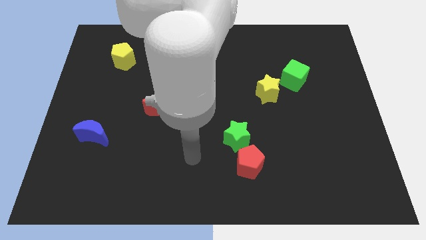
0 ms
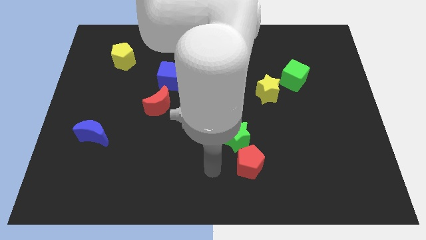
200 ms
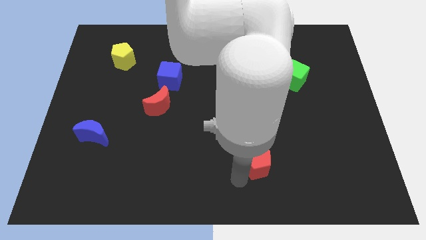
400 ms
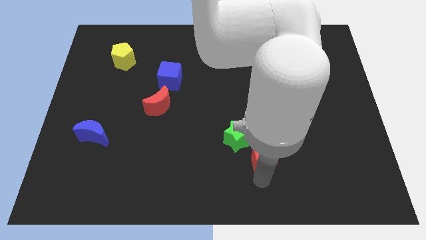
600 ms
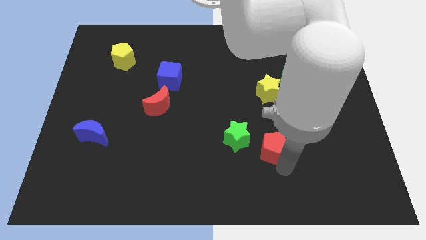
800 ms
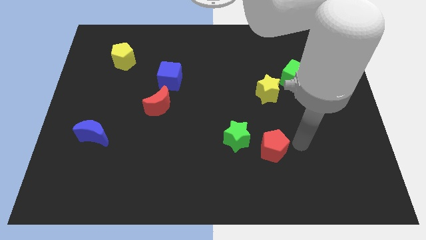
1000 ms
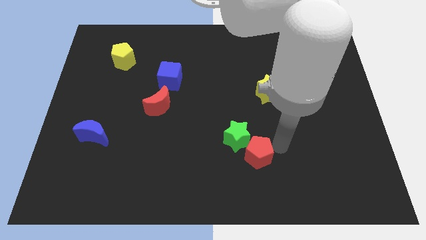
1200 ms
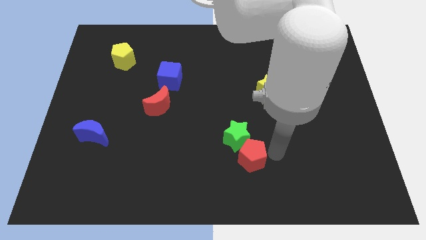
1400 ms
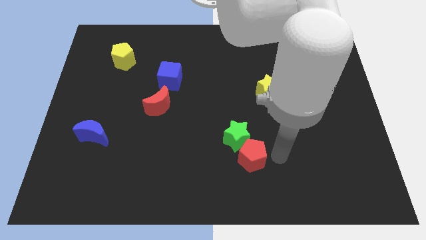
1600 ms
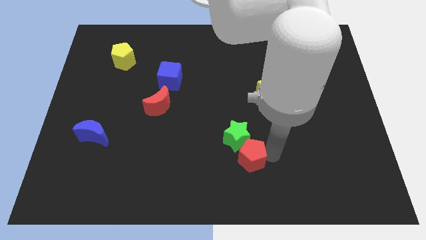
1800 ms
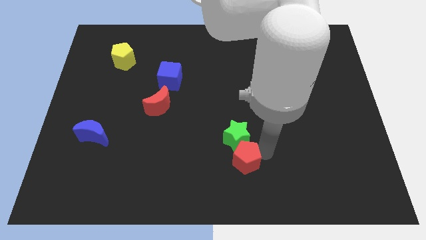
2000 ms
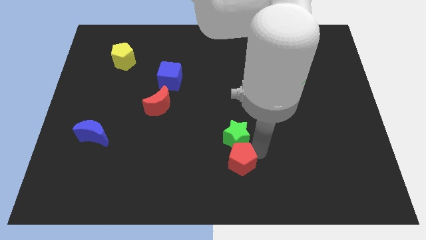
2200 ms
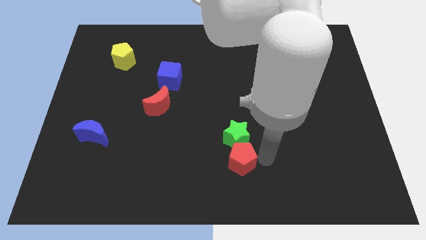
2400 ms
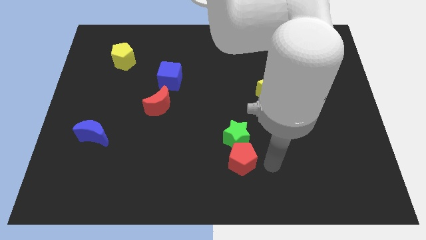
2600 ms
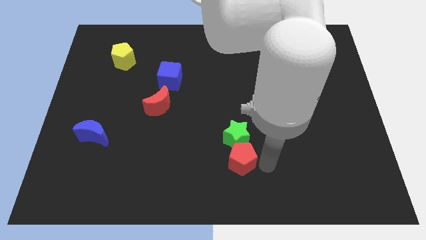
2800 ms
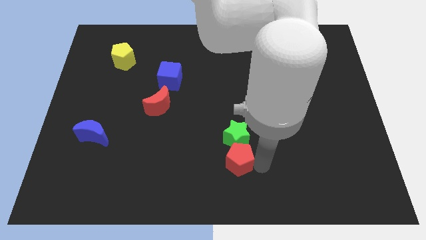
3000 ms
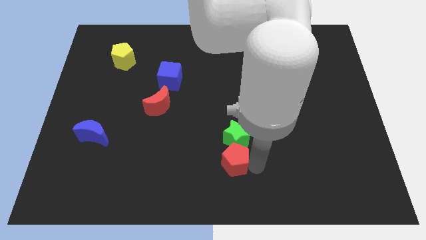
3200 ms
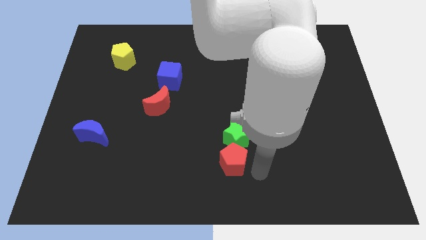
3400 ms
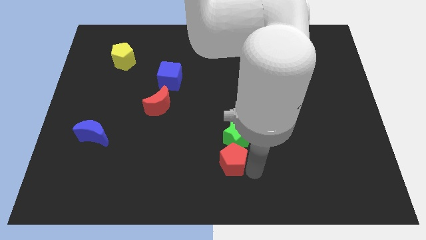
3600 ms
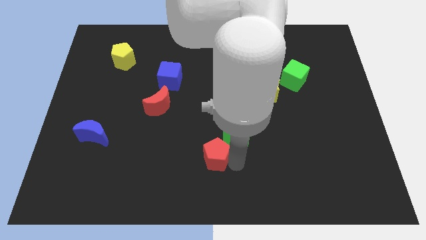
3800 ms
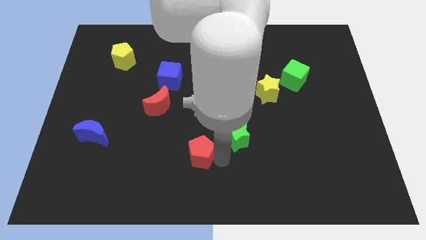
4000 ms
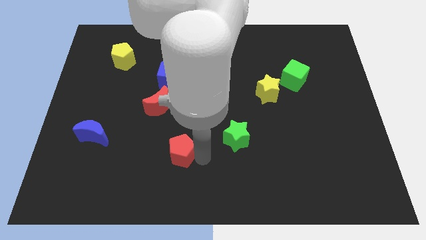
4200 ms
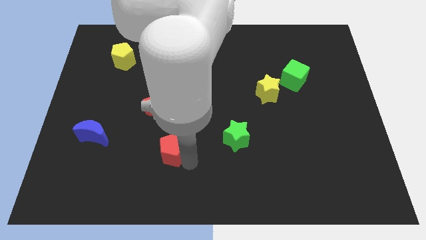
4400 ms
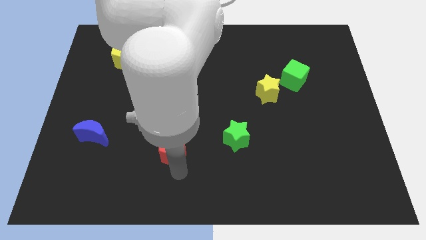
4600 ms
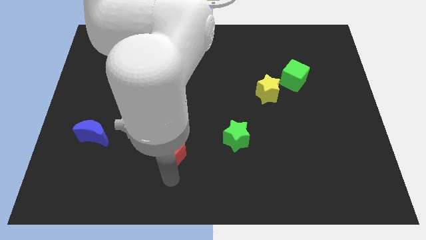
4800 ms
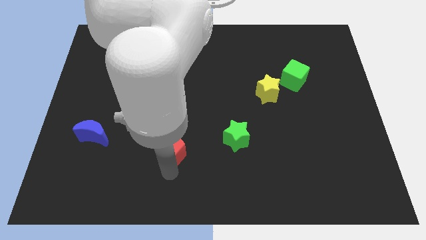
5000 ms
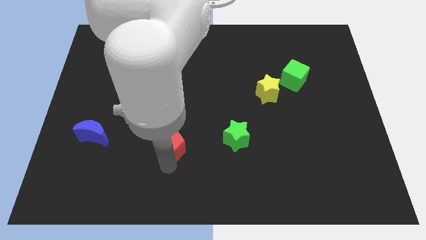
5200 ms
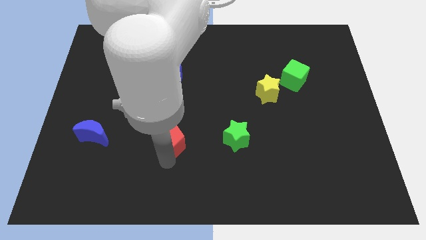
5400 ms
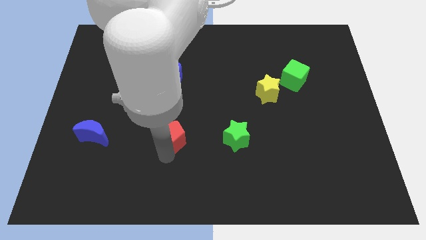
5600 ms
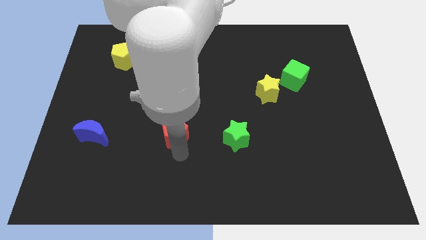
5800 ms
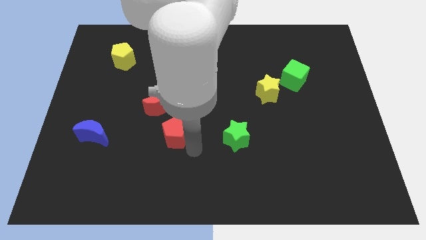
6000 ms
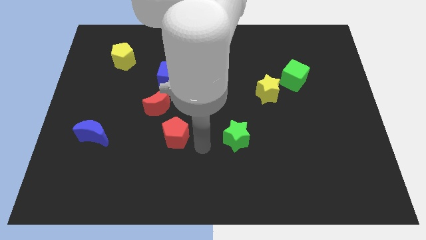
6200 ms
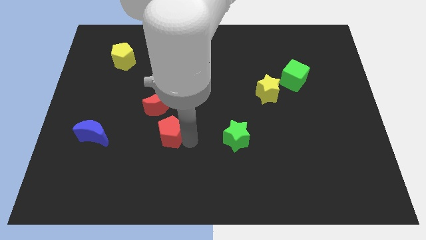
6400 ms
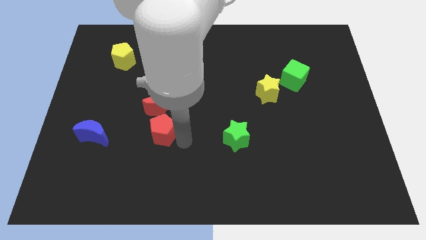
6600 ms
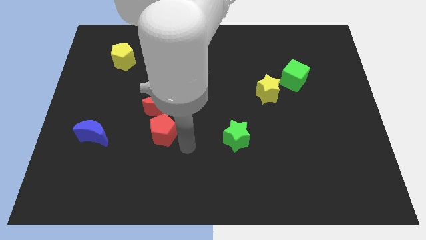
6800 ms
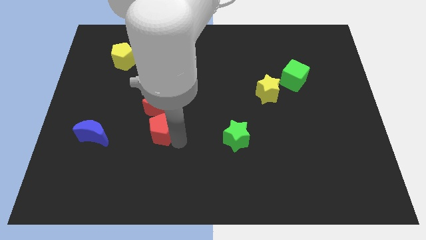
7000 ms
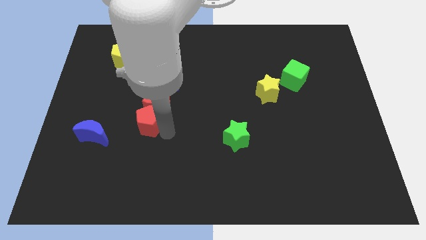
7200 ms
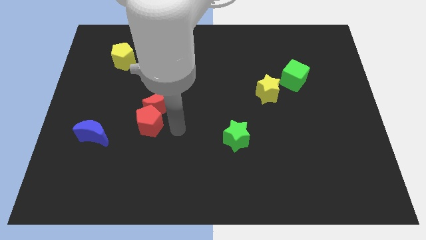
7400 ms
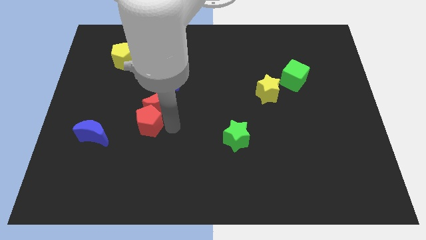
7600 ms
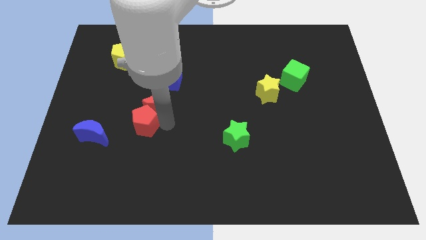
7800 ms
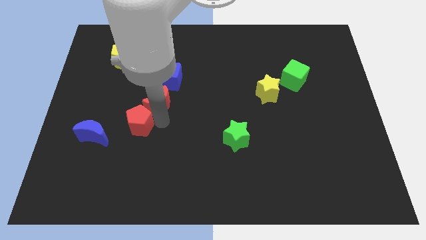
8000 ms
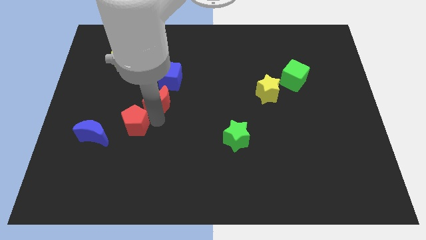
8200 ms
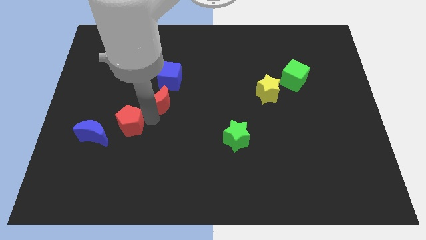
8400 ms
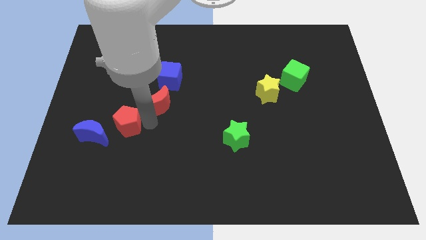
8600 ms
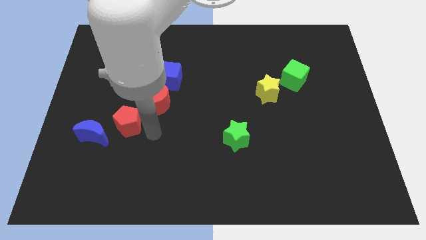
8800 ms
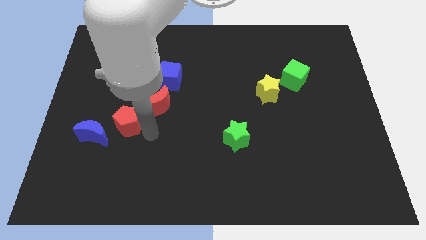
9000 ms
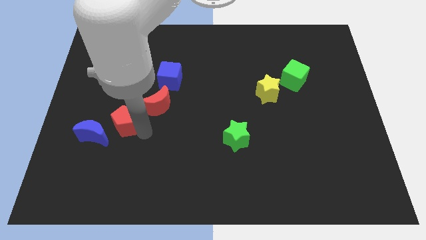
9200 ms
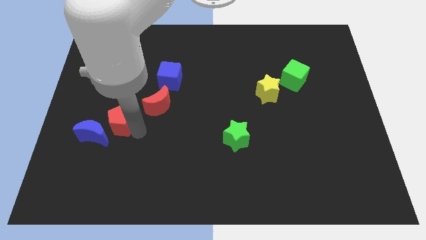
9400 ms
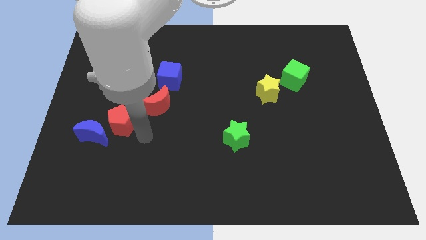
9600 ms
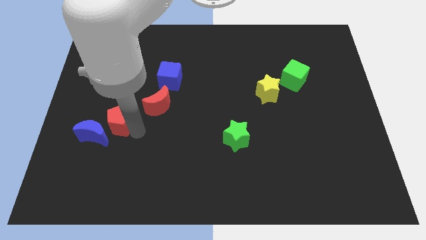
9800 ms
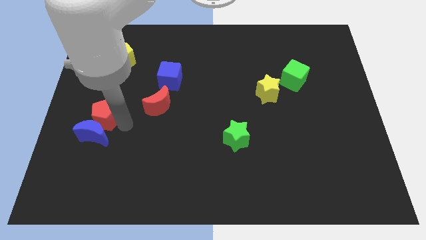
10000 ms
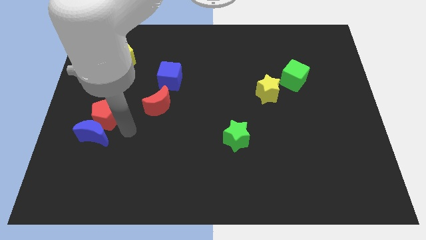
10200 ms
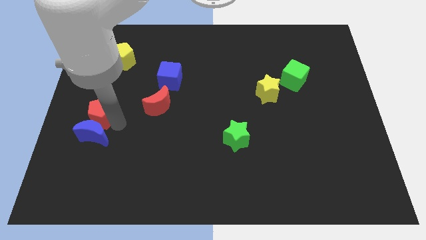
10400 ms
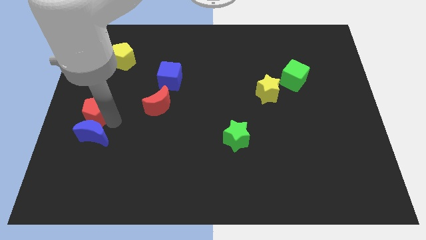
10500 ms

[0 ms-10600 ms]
slide the red pentagon to the left side

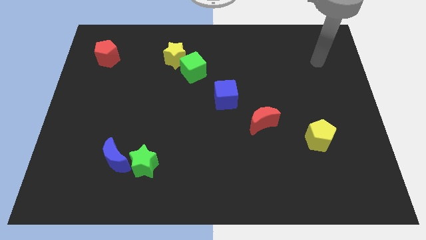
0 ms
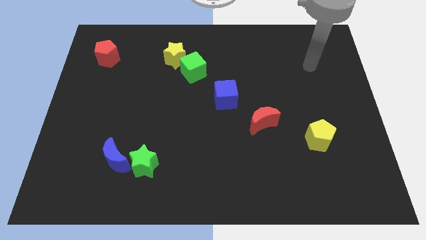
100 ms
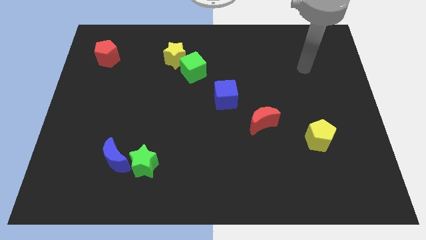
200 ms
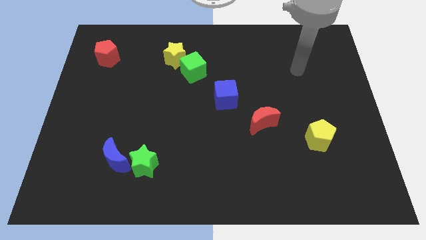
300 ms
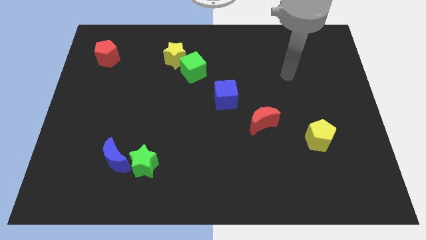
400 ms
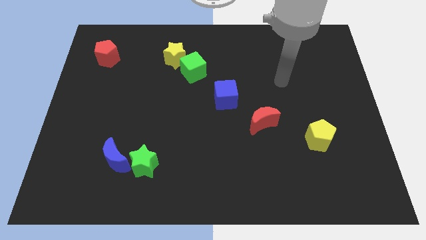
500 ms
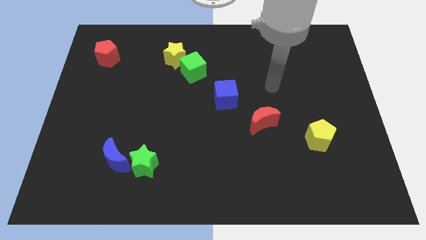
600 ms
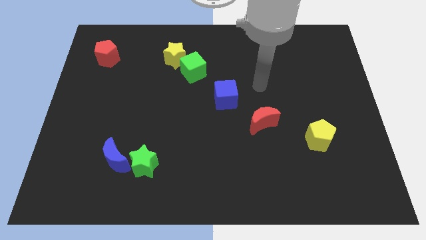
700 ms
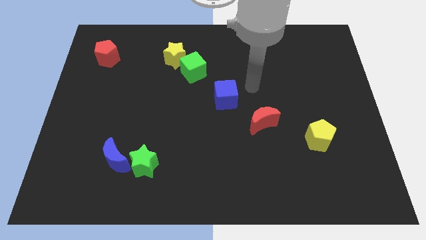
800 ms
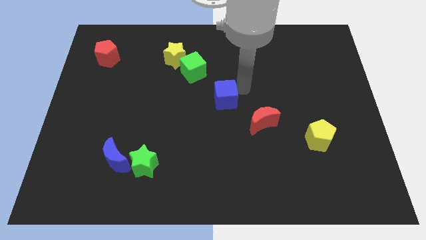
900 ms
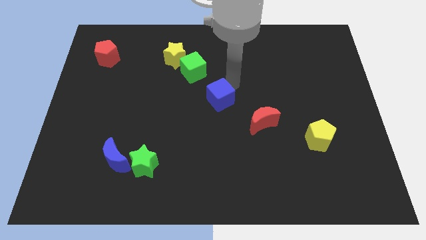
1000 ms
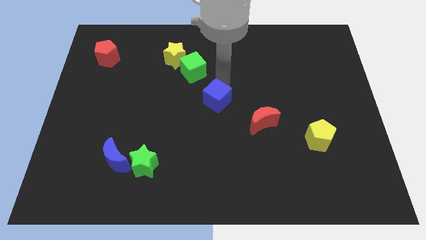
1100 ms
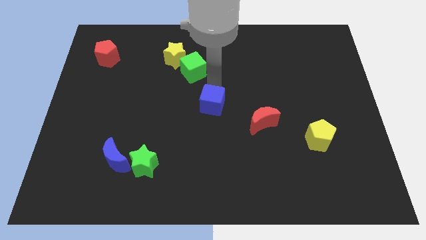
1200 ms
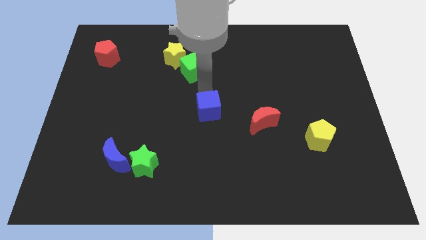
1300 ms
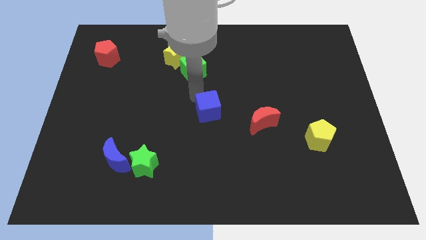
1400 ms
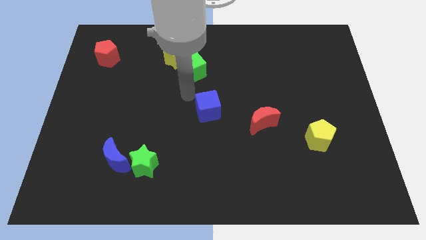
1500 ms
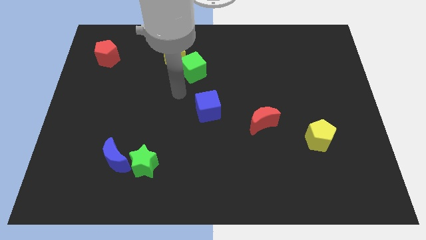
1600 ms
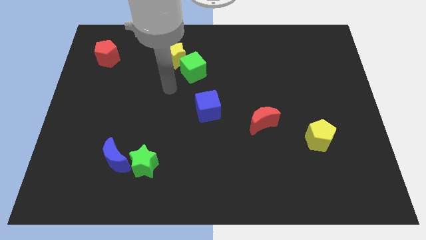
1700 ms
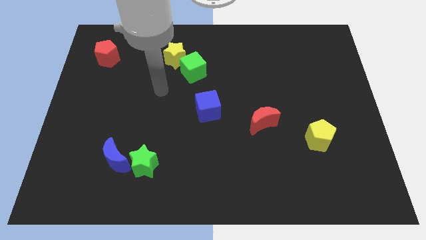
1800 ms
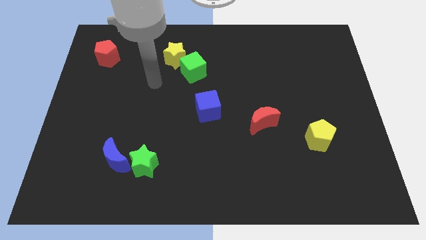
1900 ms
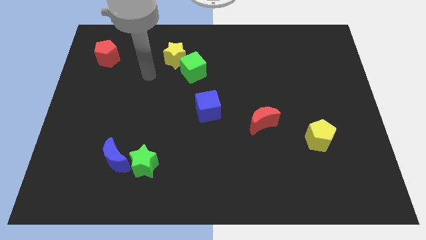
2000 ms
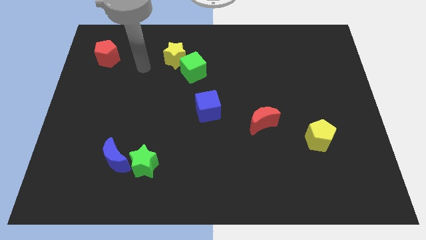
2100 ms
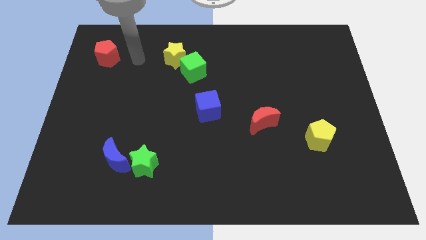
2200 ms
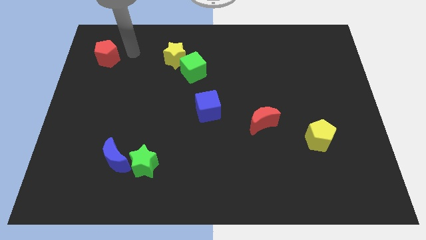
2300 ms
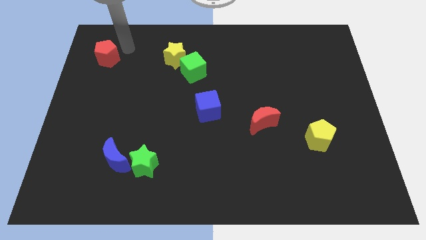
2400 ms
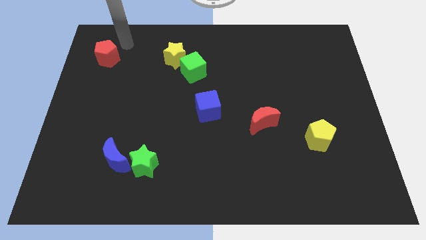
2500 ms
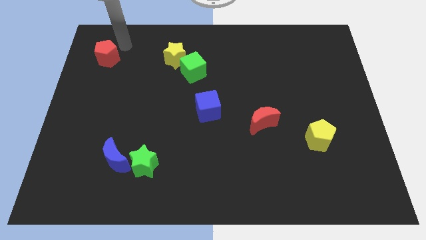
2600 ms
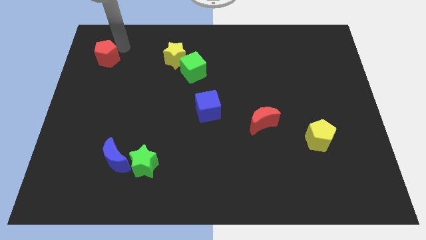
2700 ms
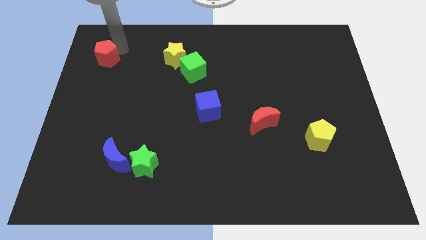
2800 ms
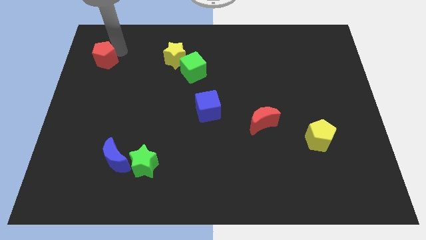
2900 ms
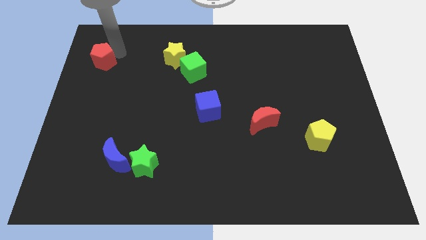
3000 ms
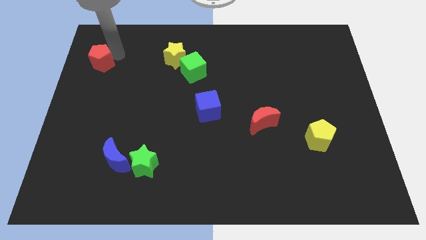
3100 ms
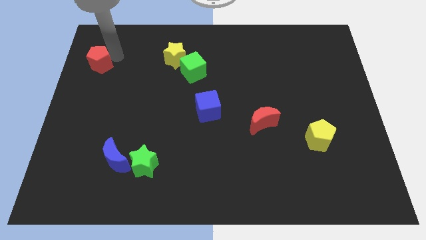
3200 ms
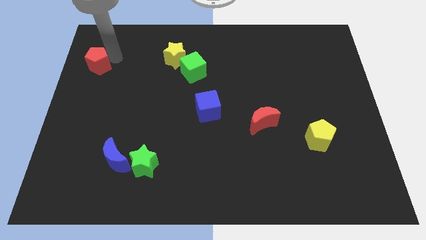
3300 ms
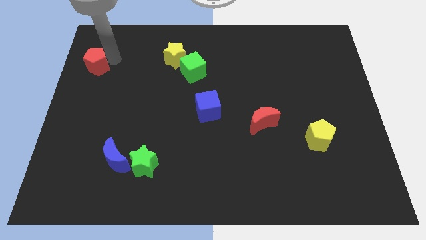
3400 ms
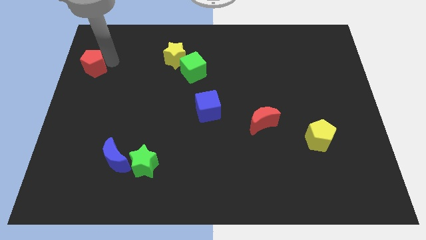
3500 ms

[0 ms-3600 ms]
move the red pentagon to the center left
